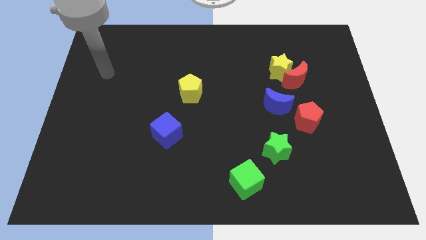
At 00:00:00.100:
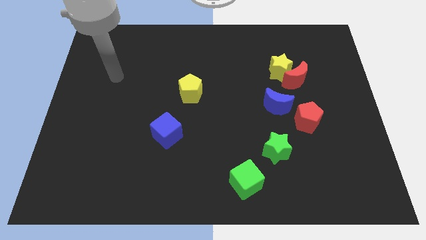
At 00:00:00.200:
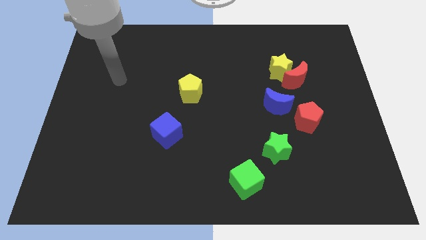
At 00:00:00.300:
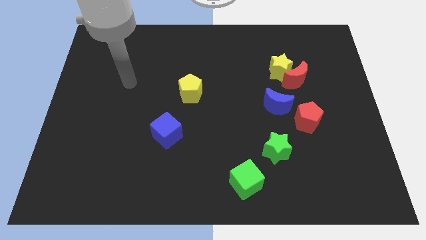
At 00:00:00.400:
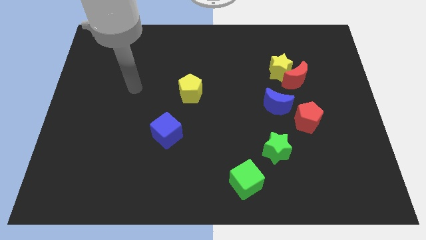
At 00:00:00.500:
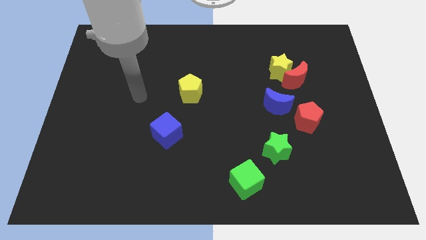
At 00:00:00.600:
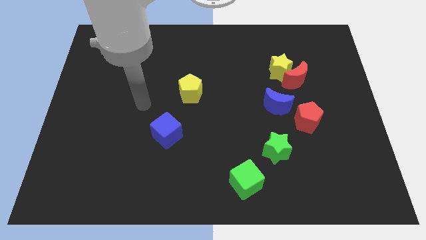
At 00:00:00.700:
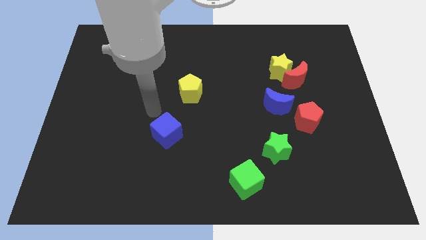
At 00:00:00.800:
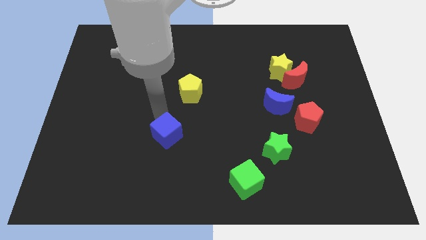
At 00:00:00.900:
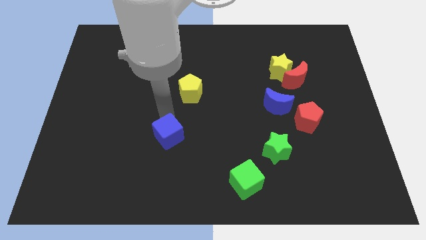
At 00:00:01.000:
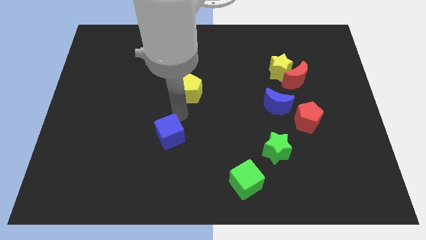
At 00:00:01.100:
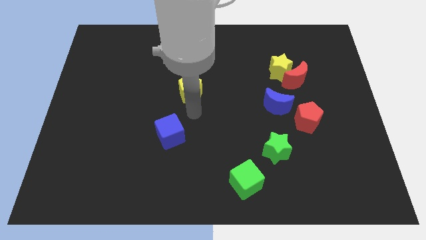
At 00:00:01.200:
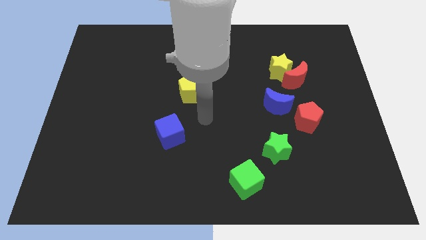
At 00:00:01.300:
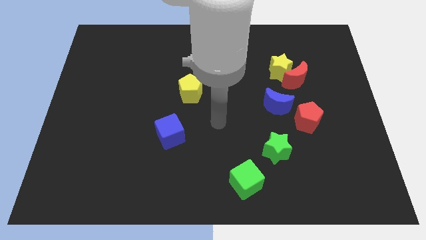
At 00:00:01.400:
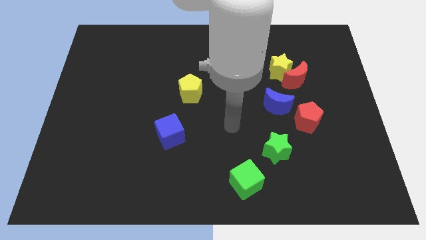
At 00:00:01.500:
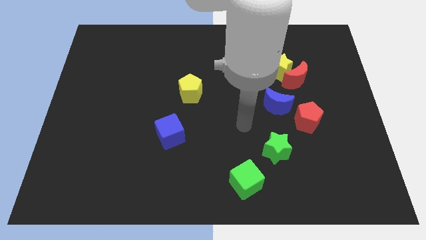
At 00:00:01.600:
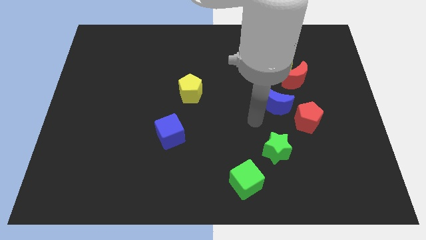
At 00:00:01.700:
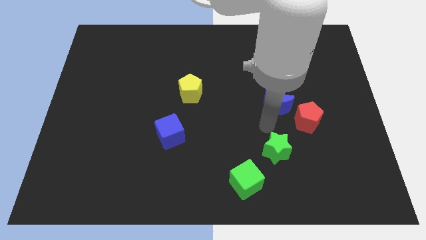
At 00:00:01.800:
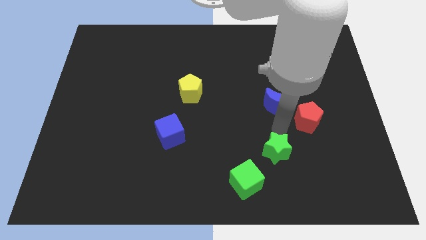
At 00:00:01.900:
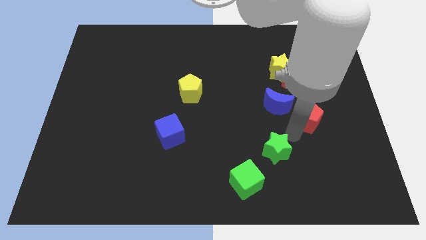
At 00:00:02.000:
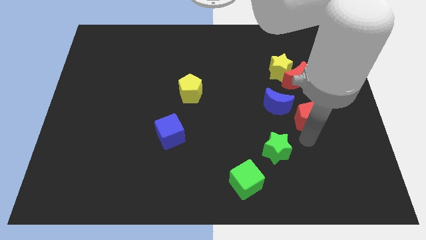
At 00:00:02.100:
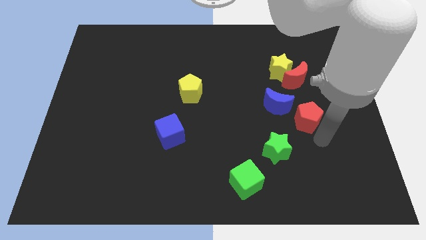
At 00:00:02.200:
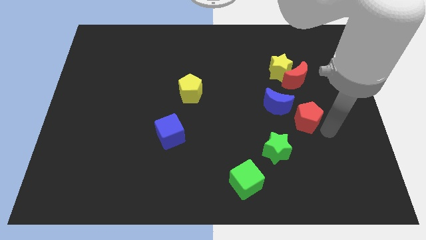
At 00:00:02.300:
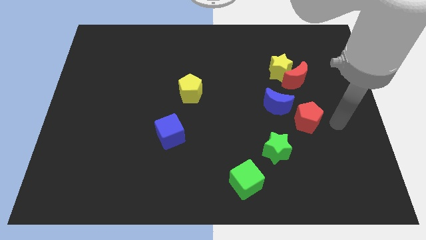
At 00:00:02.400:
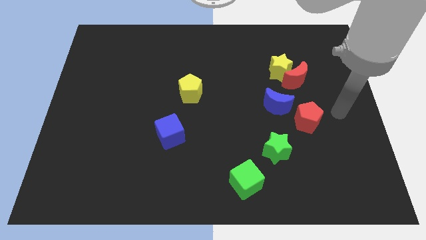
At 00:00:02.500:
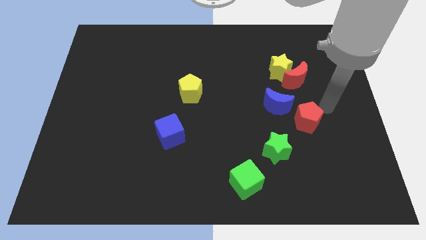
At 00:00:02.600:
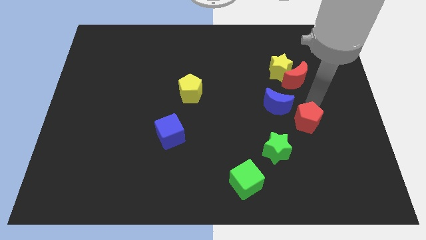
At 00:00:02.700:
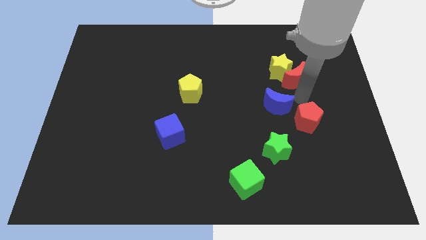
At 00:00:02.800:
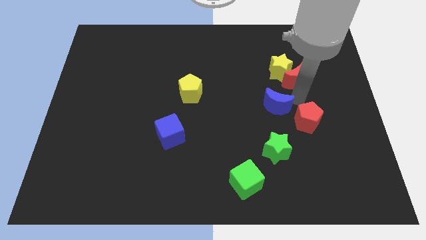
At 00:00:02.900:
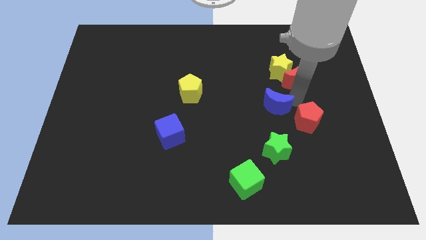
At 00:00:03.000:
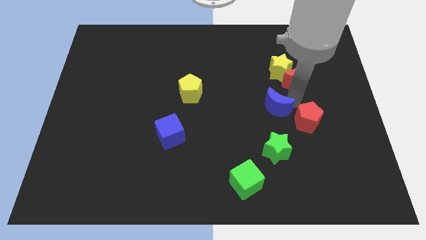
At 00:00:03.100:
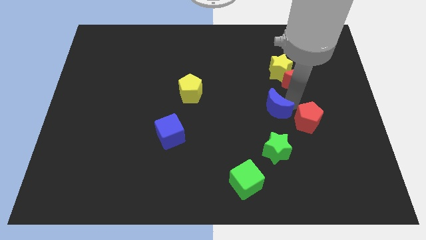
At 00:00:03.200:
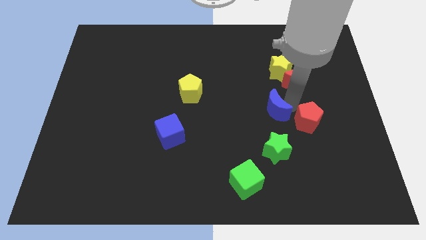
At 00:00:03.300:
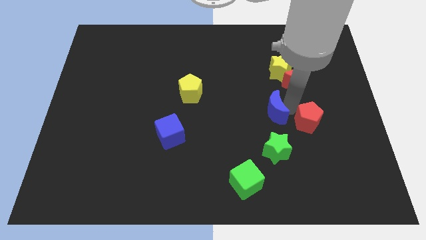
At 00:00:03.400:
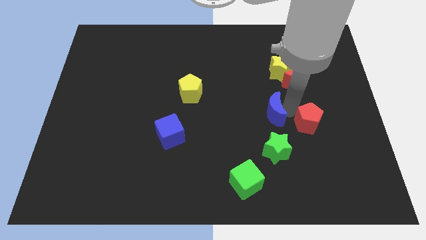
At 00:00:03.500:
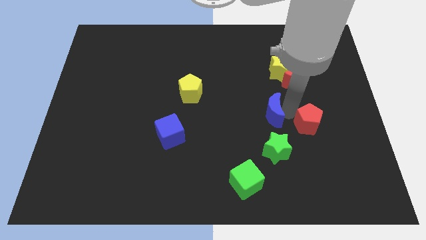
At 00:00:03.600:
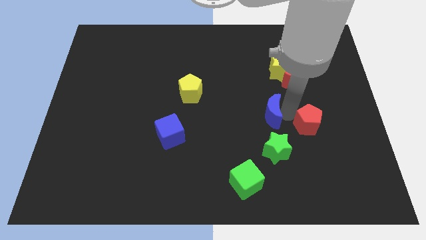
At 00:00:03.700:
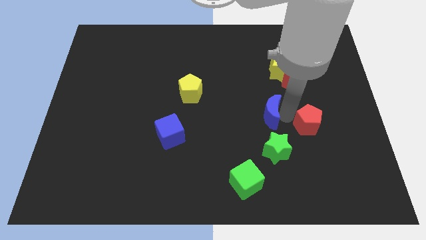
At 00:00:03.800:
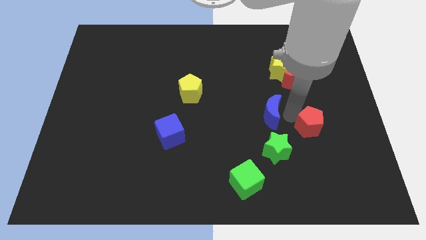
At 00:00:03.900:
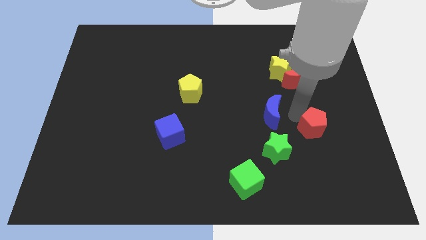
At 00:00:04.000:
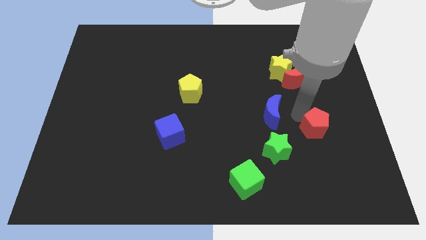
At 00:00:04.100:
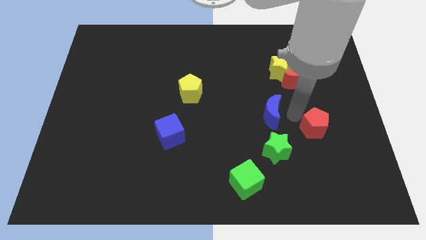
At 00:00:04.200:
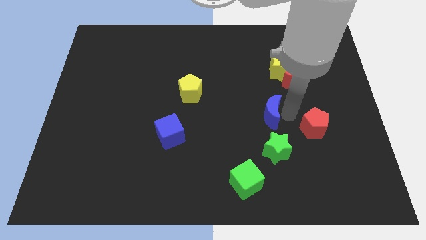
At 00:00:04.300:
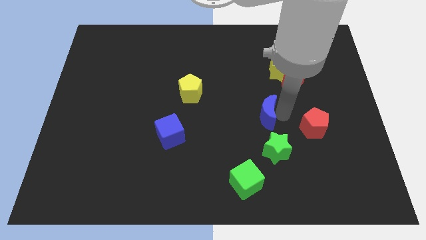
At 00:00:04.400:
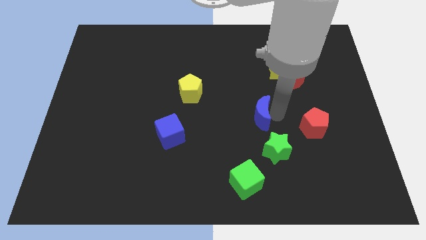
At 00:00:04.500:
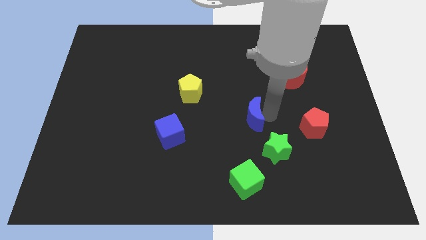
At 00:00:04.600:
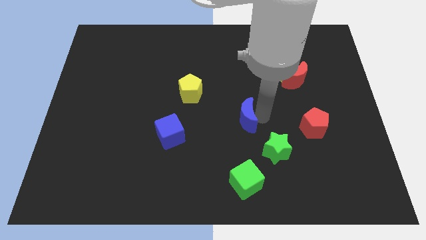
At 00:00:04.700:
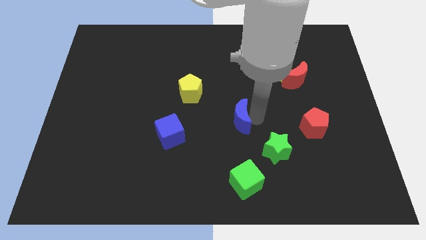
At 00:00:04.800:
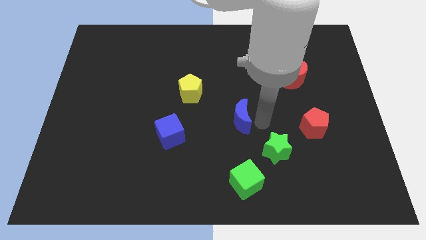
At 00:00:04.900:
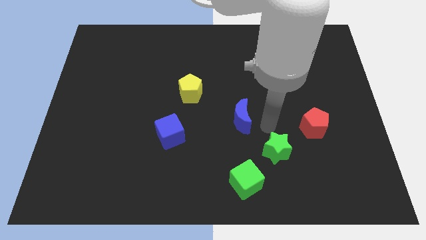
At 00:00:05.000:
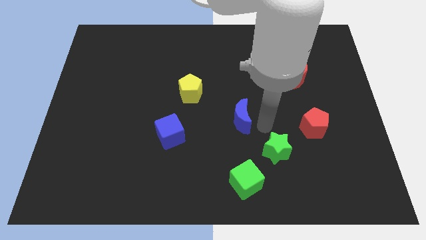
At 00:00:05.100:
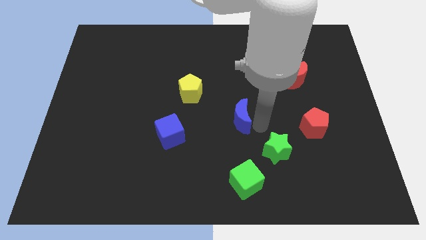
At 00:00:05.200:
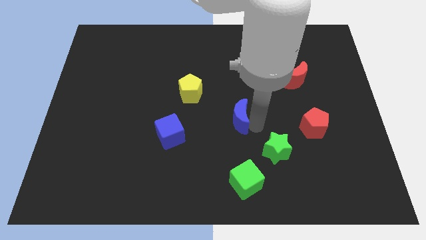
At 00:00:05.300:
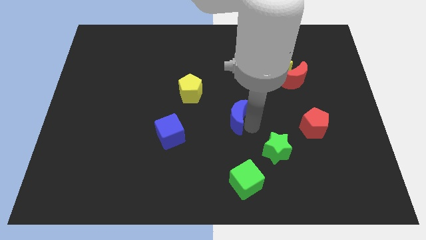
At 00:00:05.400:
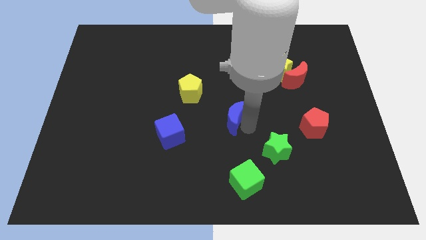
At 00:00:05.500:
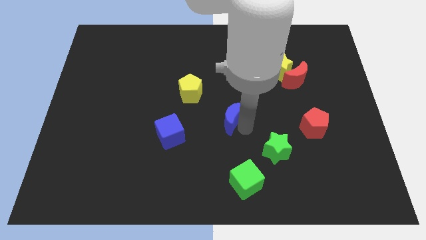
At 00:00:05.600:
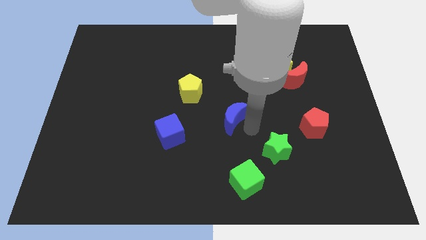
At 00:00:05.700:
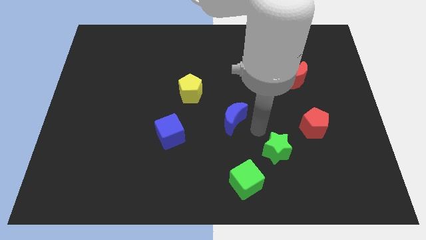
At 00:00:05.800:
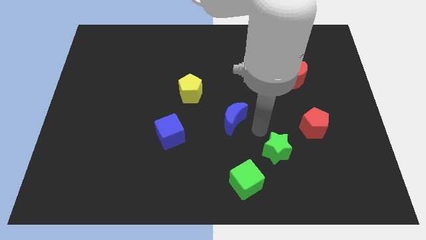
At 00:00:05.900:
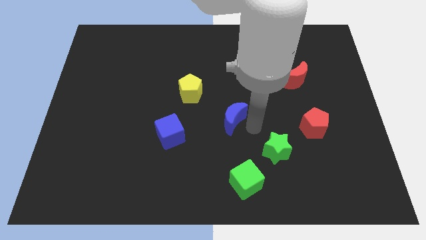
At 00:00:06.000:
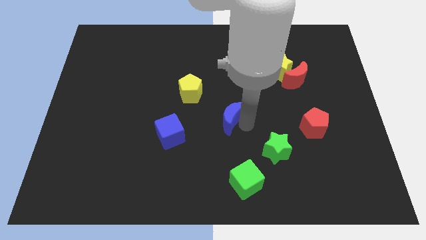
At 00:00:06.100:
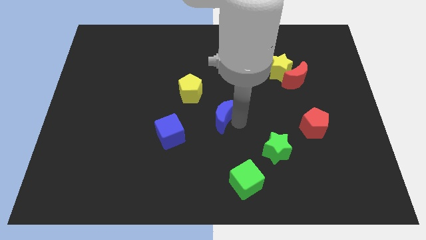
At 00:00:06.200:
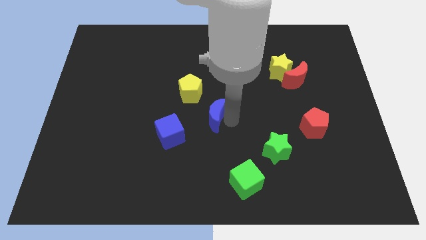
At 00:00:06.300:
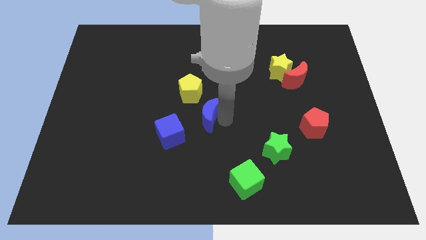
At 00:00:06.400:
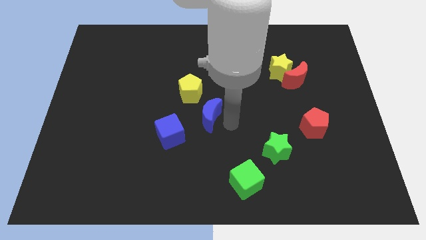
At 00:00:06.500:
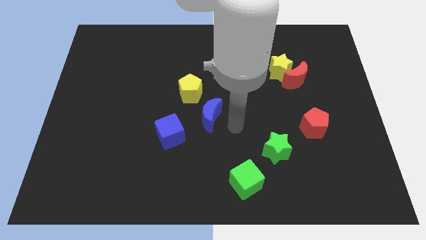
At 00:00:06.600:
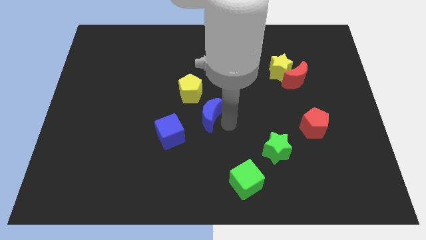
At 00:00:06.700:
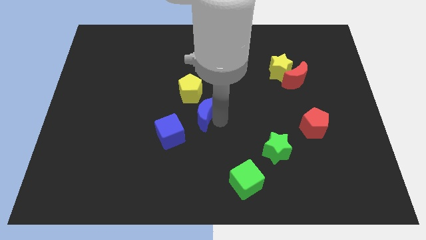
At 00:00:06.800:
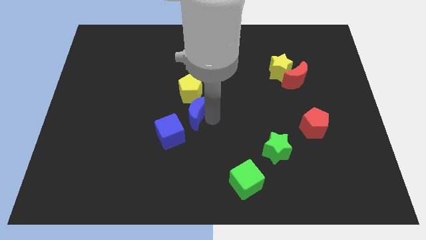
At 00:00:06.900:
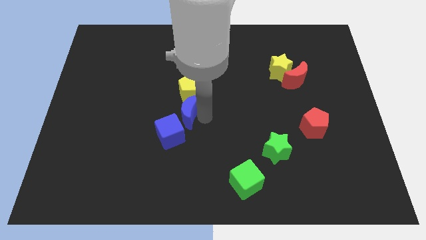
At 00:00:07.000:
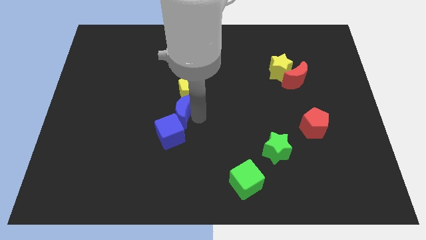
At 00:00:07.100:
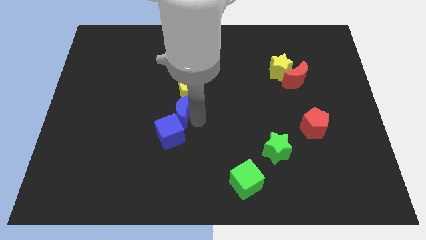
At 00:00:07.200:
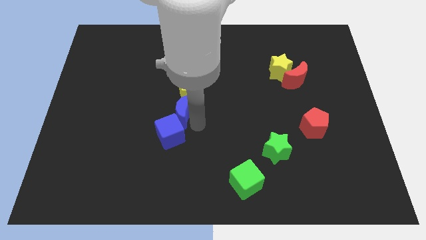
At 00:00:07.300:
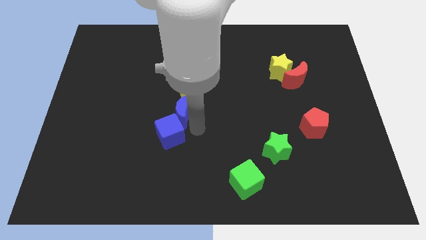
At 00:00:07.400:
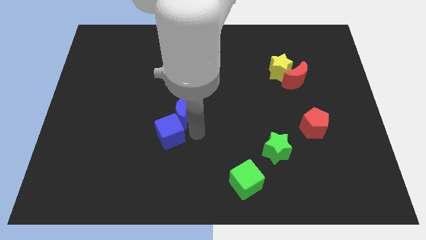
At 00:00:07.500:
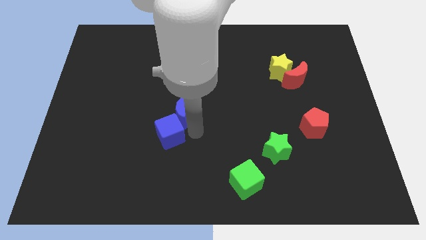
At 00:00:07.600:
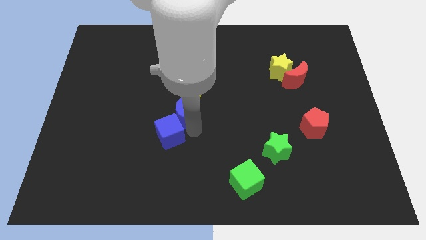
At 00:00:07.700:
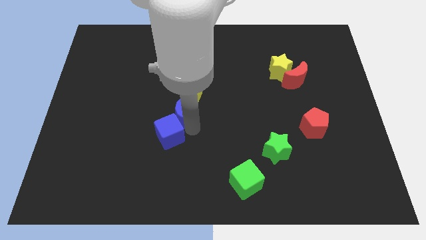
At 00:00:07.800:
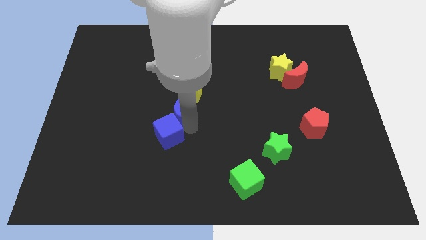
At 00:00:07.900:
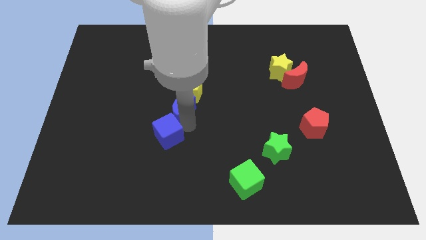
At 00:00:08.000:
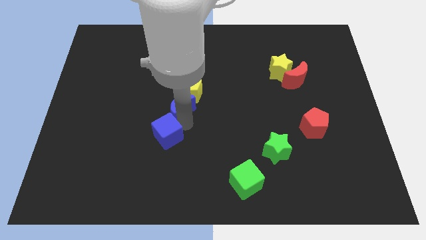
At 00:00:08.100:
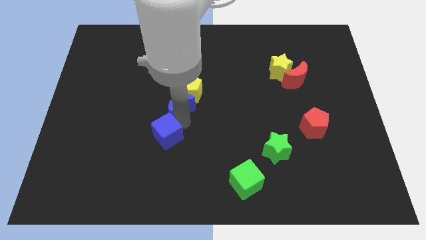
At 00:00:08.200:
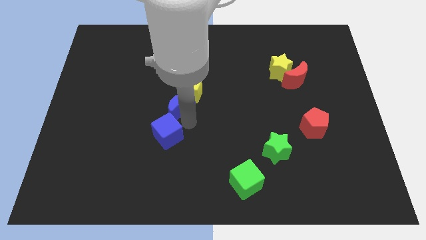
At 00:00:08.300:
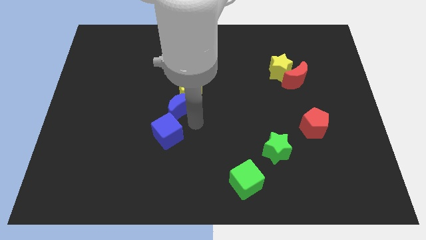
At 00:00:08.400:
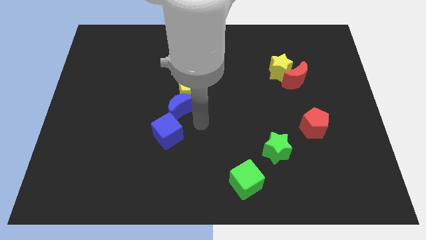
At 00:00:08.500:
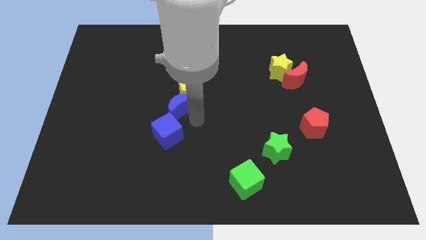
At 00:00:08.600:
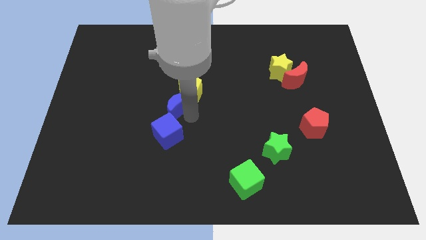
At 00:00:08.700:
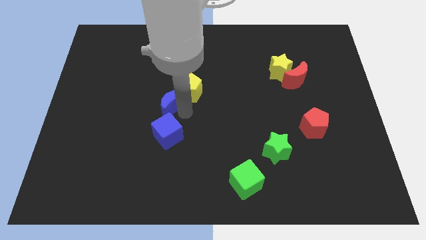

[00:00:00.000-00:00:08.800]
slide the blue moon left of the yellow pentagon
